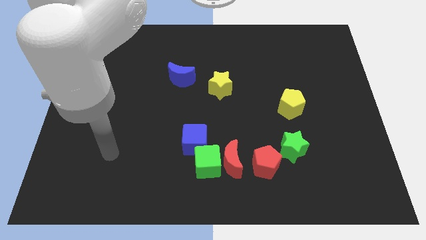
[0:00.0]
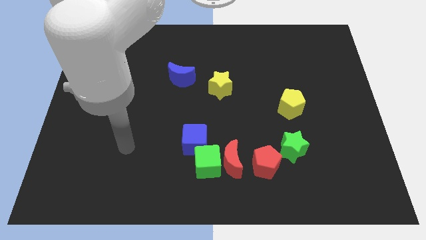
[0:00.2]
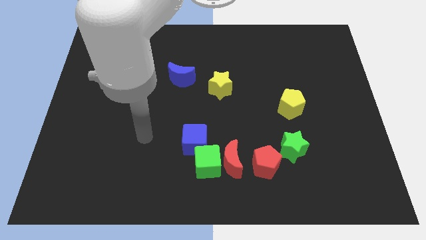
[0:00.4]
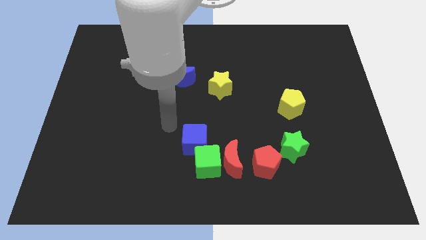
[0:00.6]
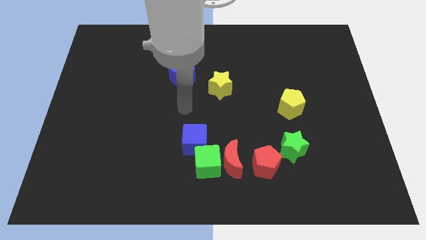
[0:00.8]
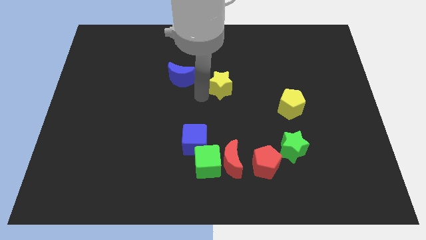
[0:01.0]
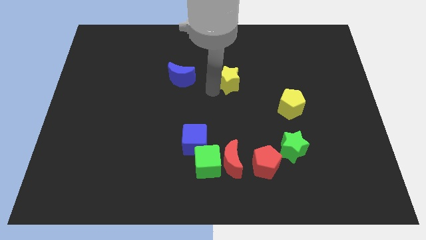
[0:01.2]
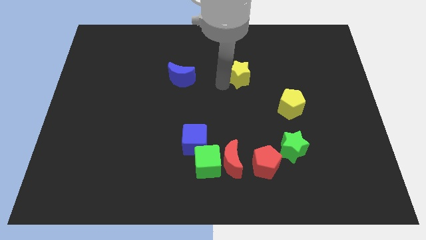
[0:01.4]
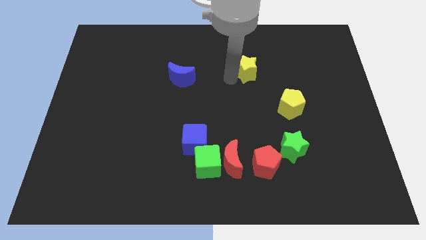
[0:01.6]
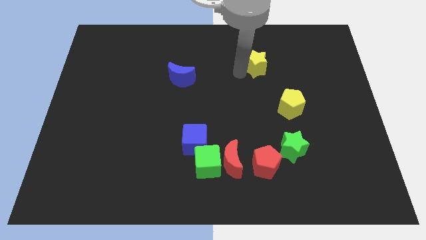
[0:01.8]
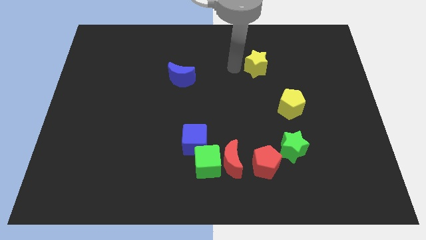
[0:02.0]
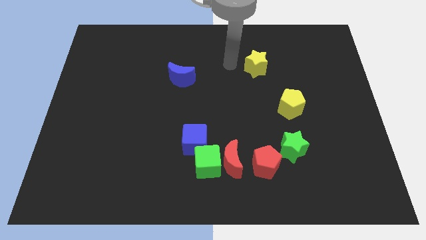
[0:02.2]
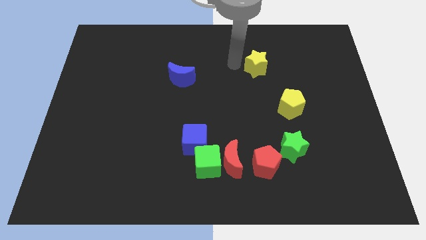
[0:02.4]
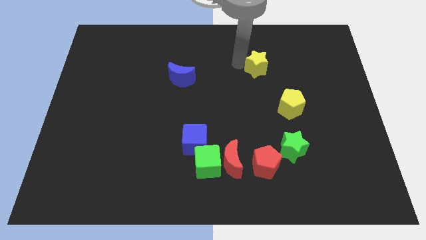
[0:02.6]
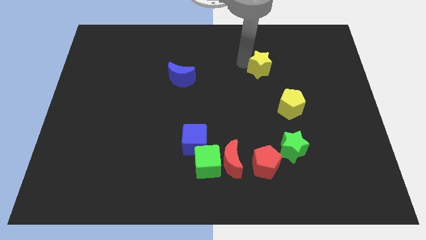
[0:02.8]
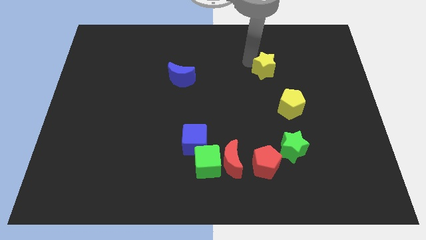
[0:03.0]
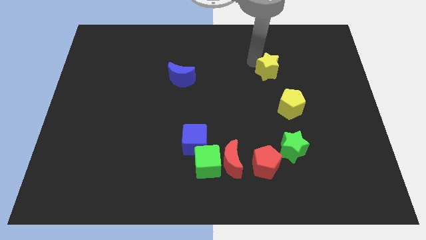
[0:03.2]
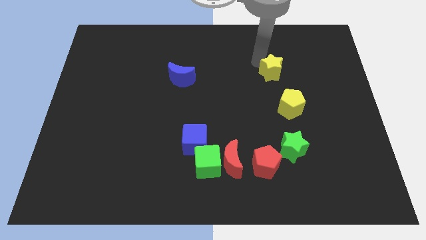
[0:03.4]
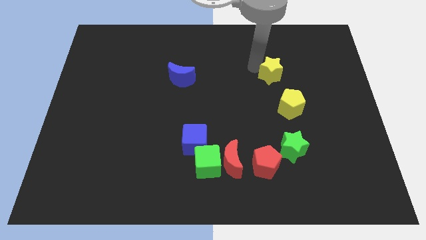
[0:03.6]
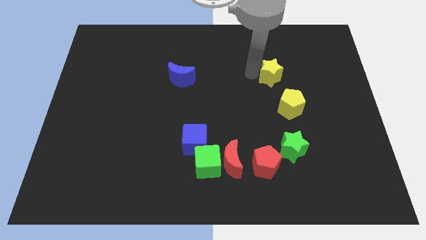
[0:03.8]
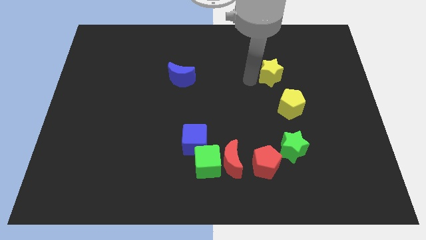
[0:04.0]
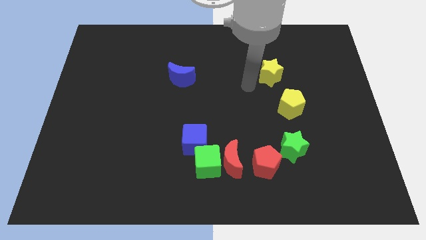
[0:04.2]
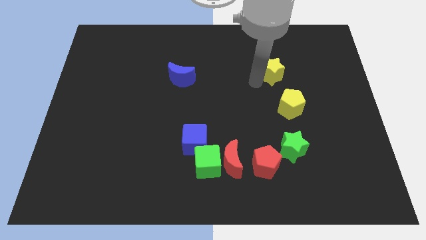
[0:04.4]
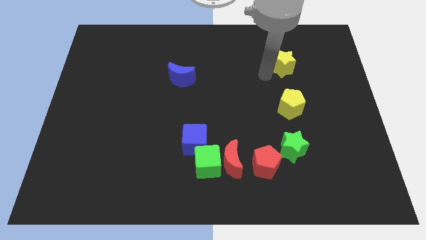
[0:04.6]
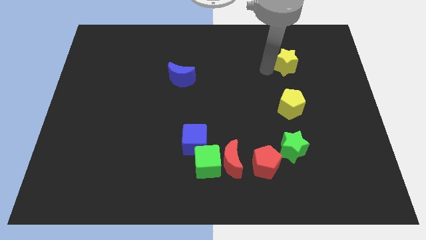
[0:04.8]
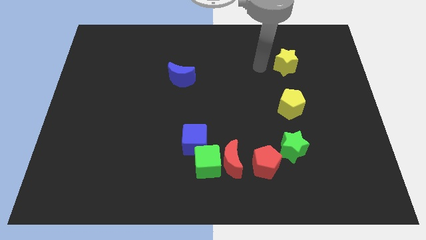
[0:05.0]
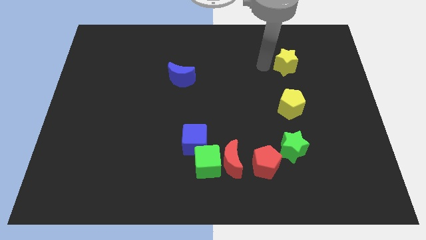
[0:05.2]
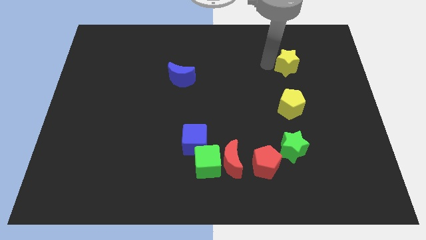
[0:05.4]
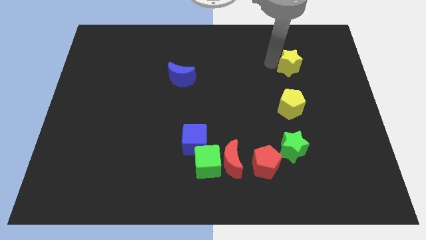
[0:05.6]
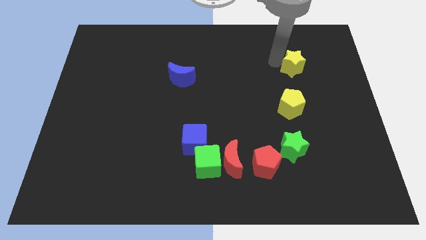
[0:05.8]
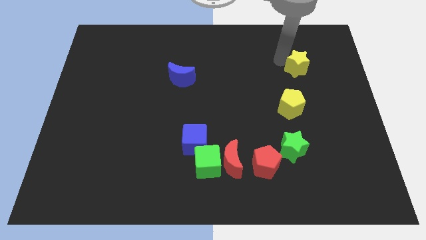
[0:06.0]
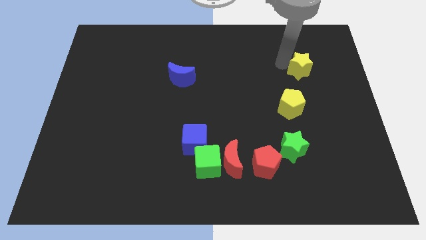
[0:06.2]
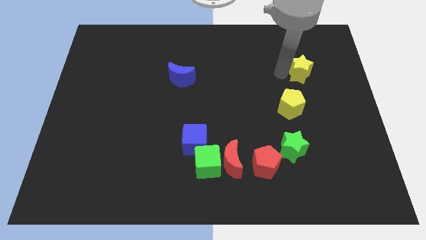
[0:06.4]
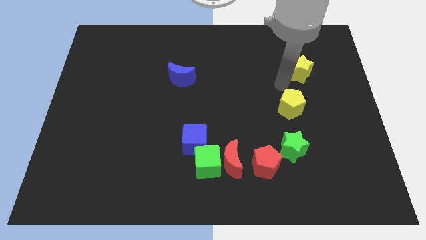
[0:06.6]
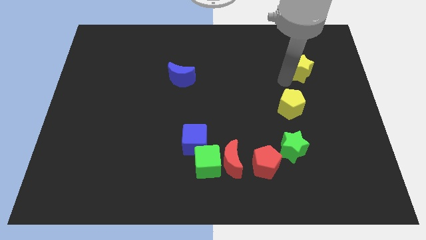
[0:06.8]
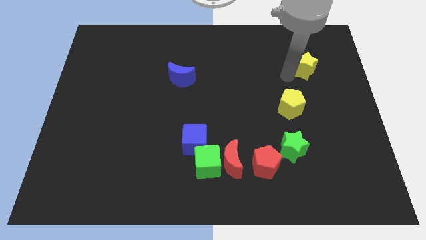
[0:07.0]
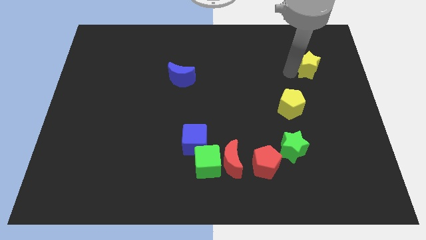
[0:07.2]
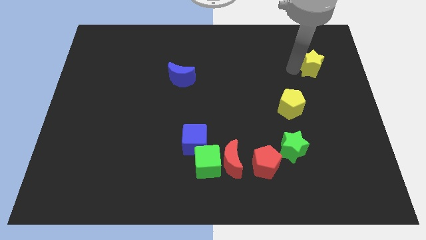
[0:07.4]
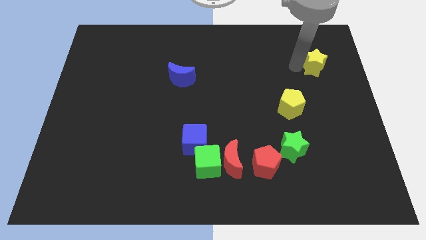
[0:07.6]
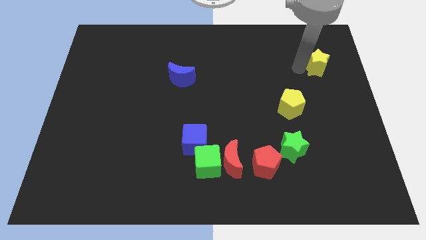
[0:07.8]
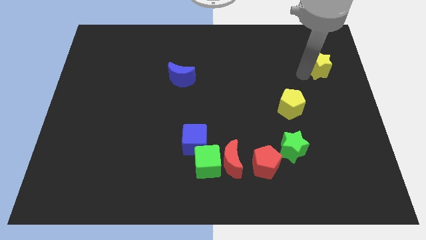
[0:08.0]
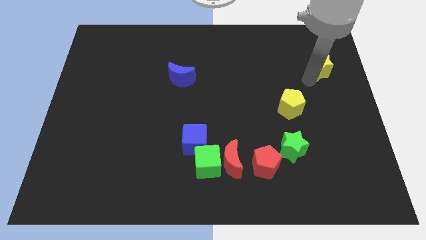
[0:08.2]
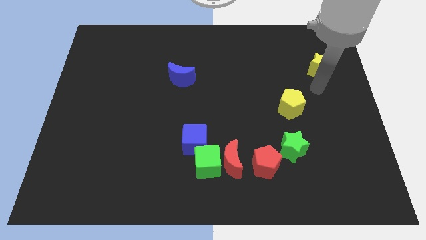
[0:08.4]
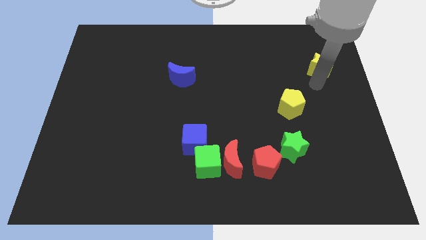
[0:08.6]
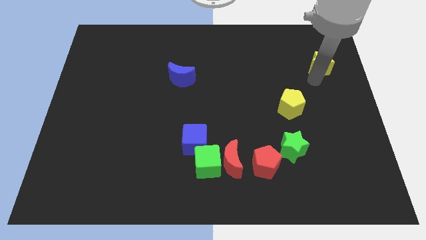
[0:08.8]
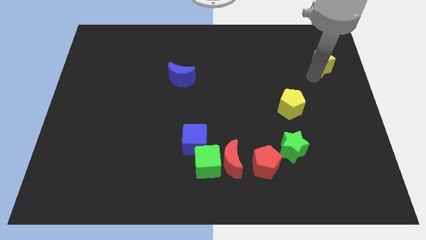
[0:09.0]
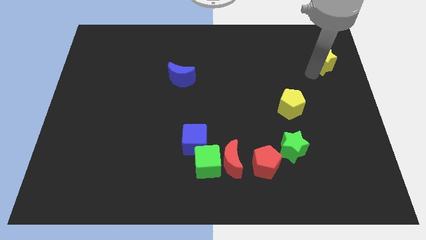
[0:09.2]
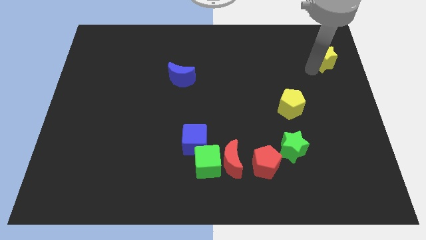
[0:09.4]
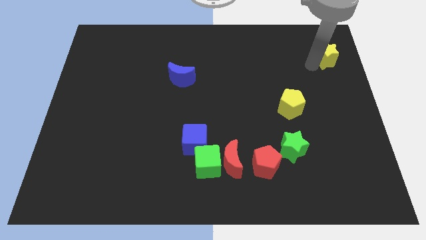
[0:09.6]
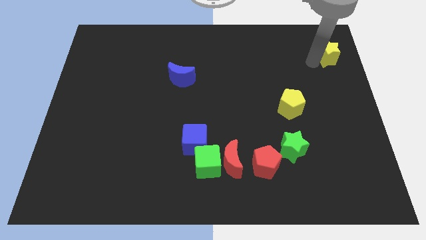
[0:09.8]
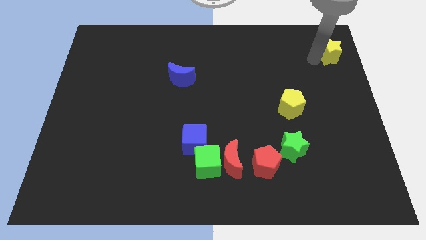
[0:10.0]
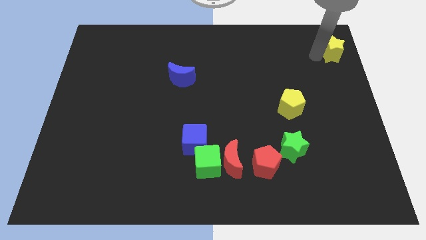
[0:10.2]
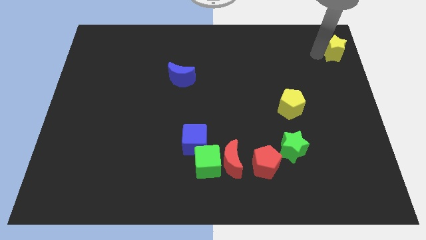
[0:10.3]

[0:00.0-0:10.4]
move the yellow star to the top right of the board

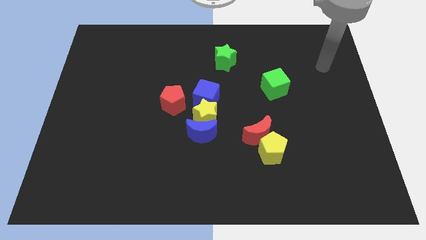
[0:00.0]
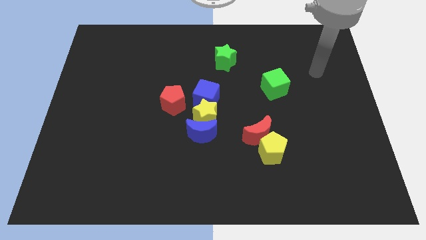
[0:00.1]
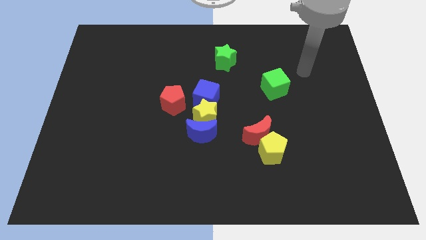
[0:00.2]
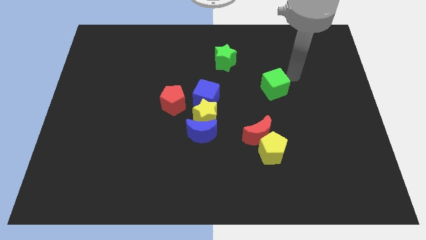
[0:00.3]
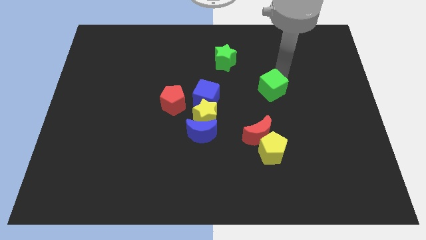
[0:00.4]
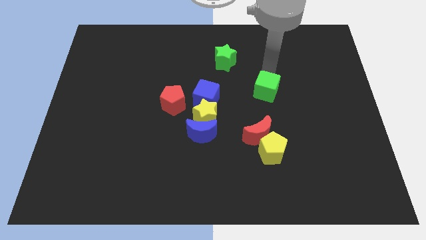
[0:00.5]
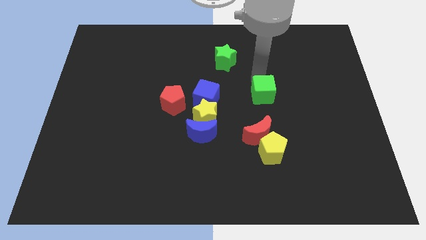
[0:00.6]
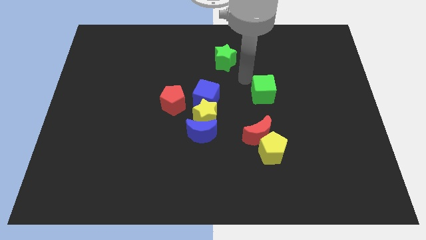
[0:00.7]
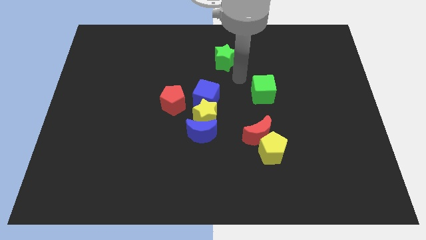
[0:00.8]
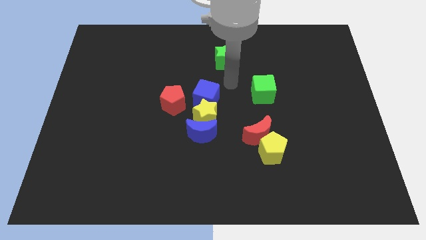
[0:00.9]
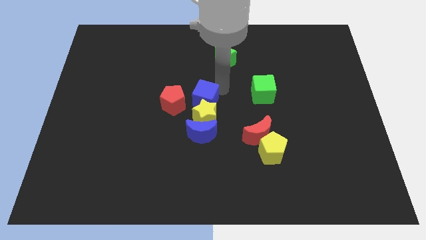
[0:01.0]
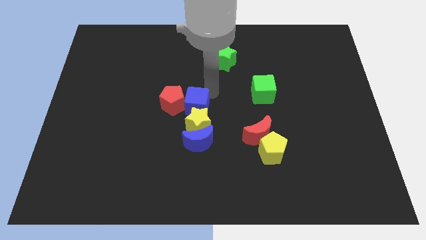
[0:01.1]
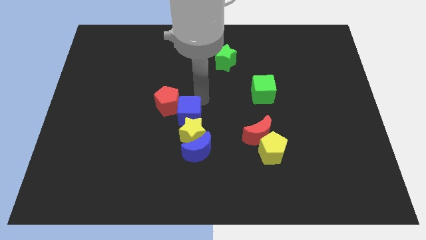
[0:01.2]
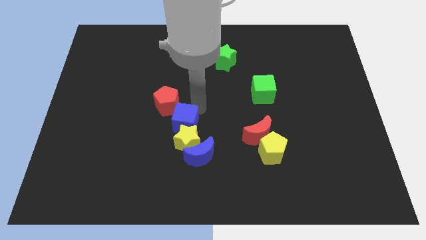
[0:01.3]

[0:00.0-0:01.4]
push the blue moon to the bottom side
